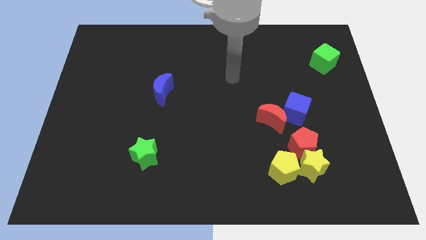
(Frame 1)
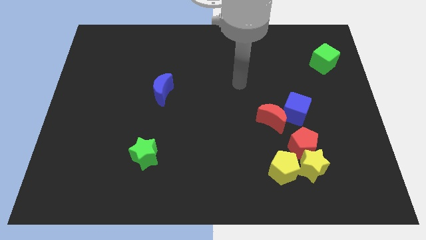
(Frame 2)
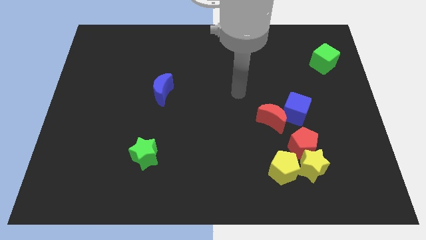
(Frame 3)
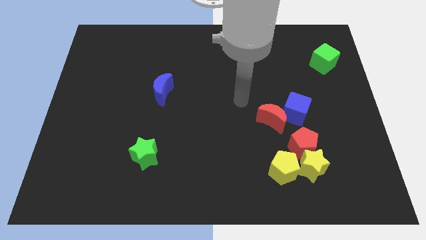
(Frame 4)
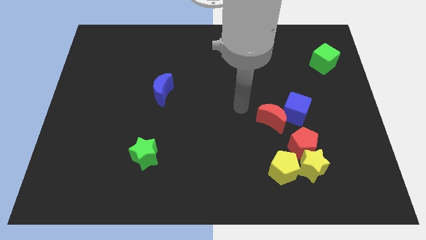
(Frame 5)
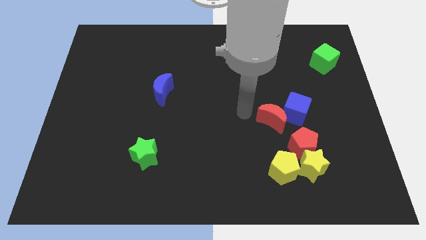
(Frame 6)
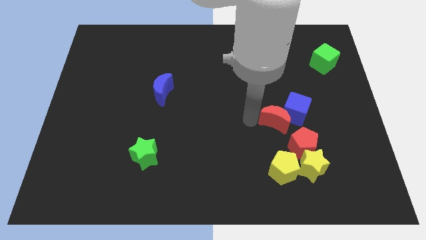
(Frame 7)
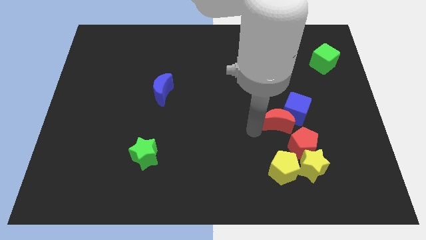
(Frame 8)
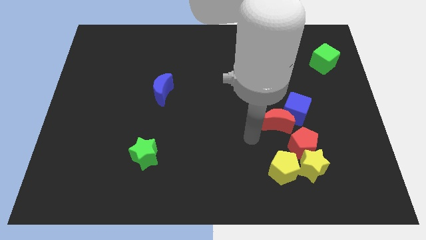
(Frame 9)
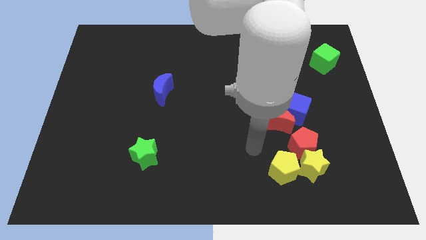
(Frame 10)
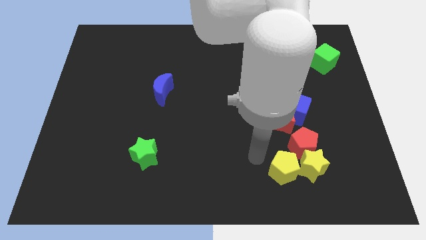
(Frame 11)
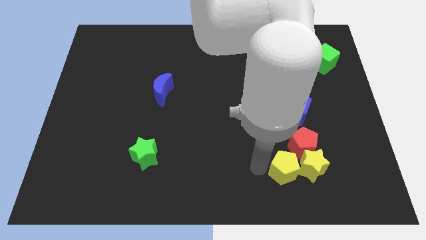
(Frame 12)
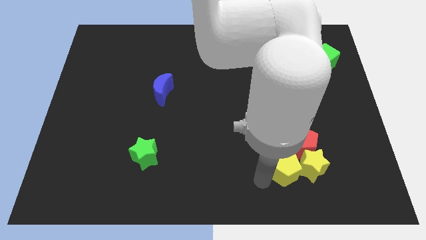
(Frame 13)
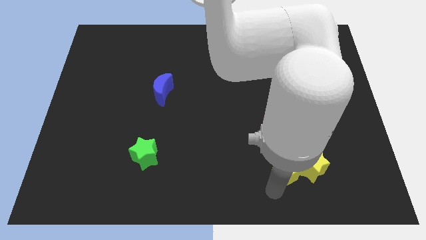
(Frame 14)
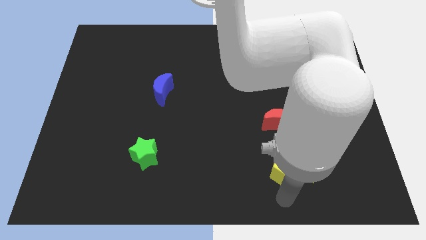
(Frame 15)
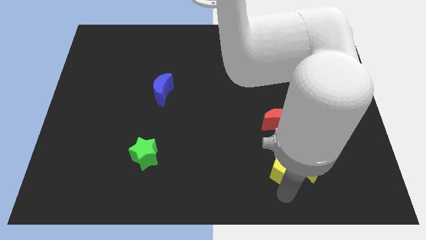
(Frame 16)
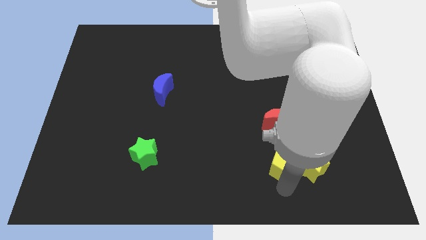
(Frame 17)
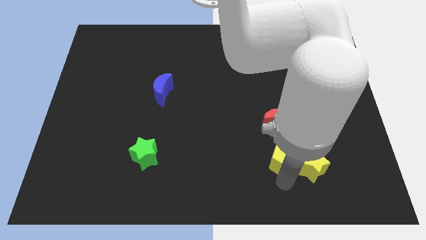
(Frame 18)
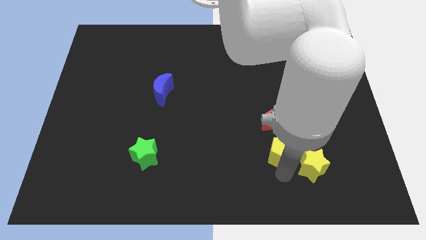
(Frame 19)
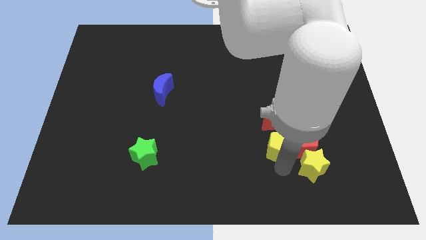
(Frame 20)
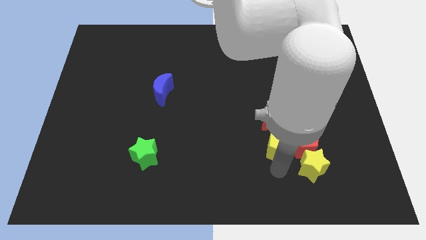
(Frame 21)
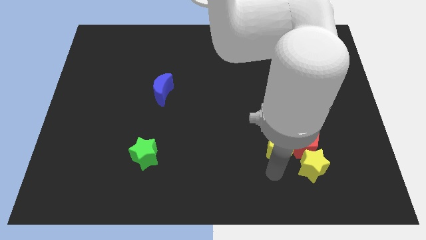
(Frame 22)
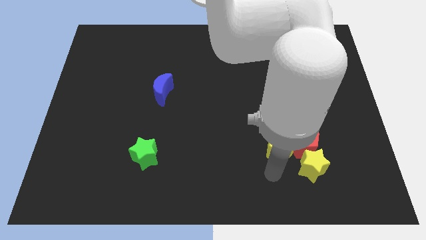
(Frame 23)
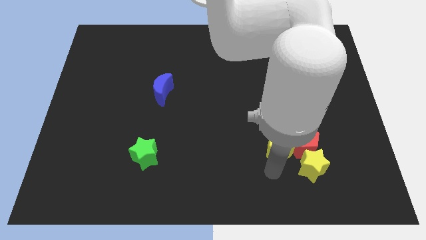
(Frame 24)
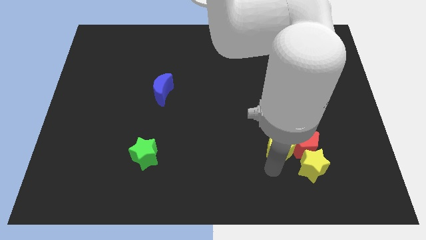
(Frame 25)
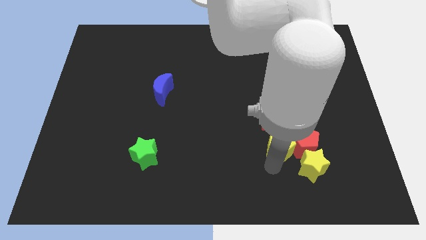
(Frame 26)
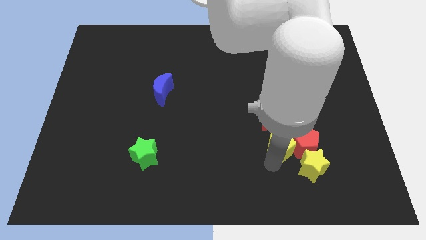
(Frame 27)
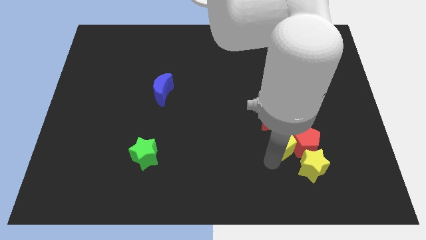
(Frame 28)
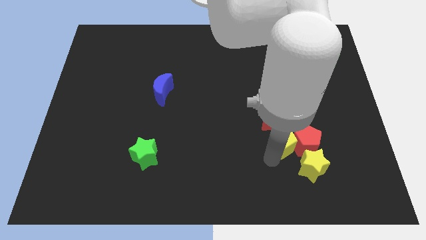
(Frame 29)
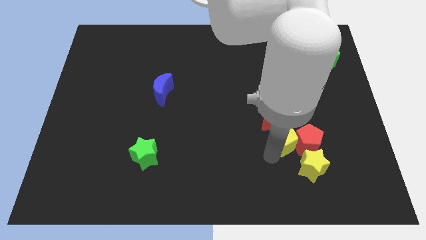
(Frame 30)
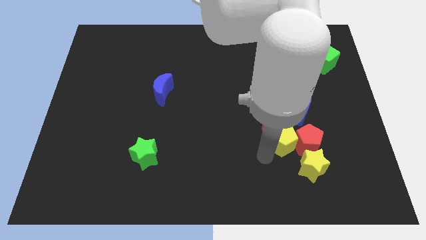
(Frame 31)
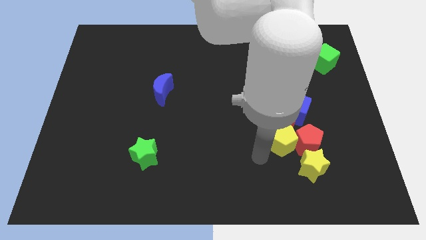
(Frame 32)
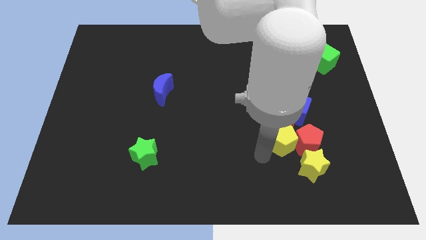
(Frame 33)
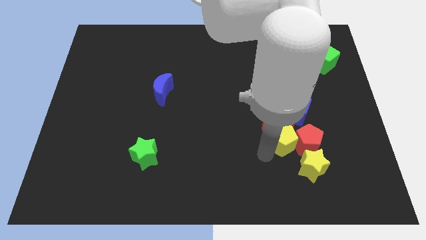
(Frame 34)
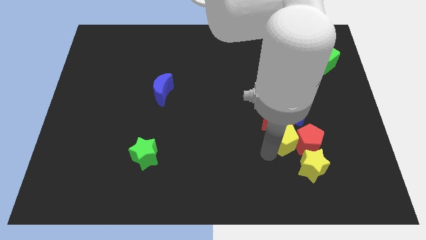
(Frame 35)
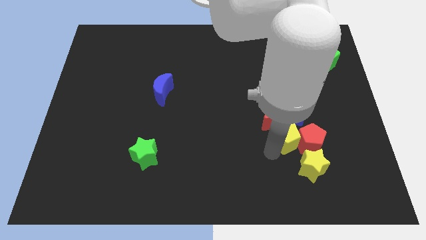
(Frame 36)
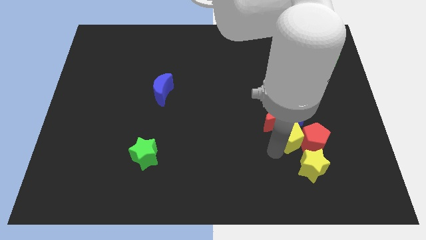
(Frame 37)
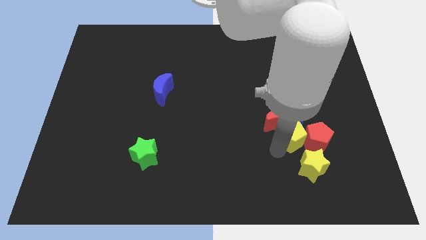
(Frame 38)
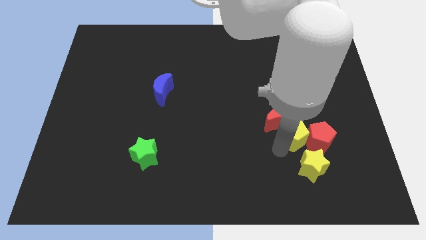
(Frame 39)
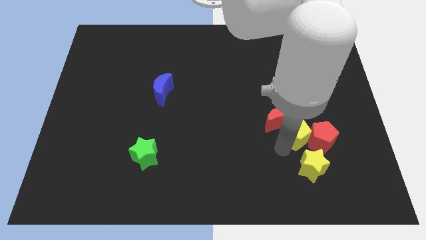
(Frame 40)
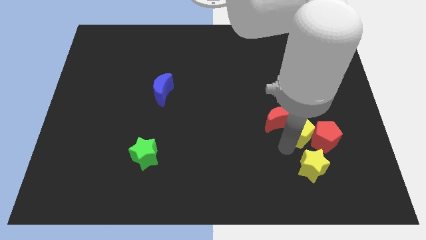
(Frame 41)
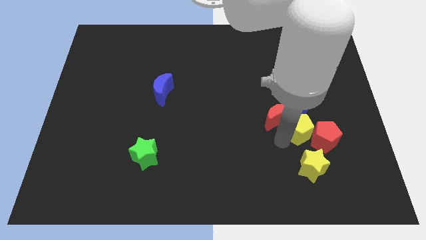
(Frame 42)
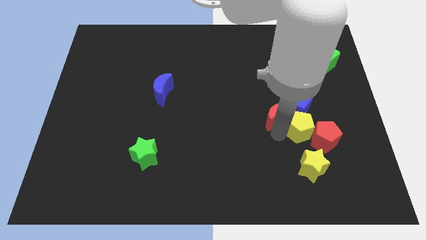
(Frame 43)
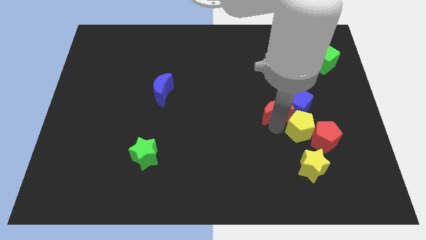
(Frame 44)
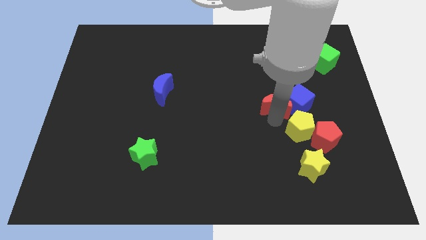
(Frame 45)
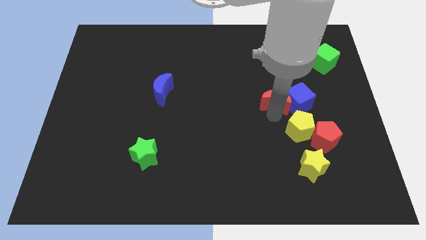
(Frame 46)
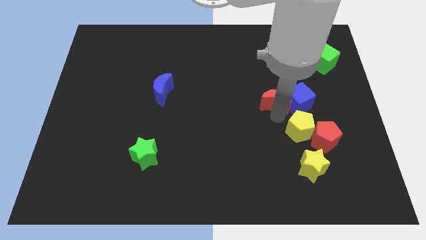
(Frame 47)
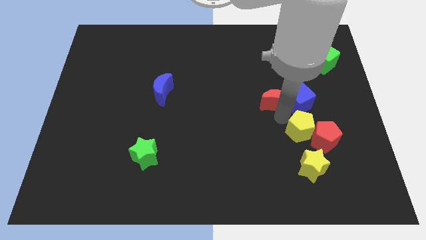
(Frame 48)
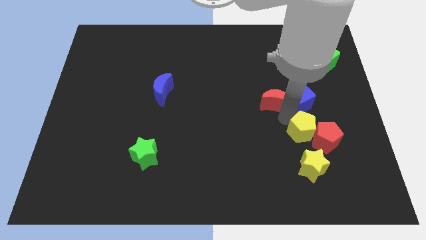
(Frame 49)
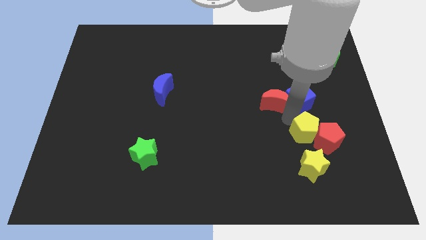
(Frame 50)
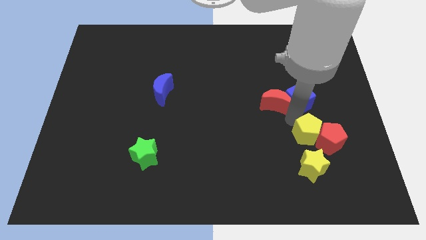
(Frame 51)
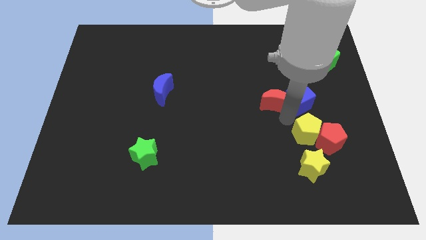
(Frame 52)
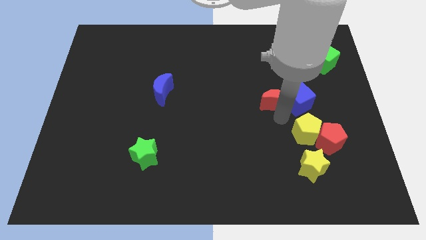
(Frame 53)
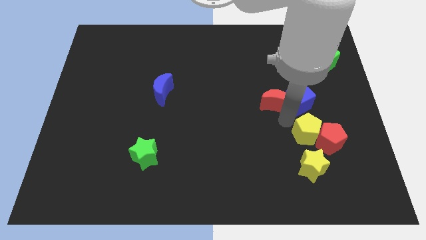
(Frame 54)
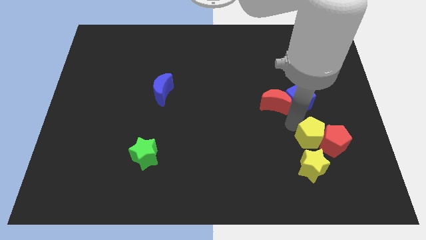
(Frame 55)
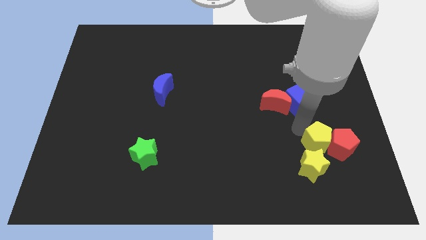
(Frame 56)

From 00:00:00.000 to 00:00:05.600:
put the yellow pentagon to the top right of the yellow star
